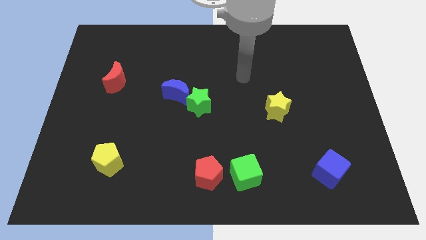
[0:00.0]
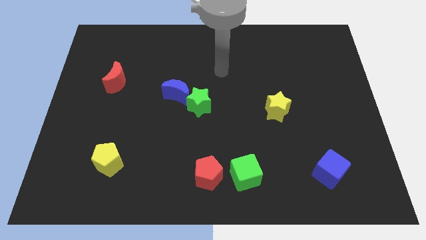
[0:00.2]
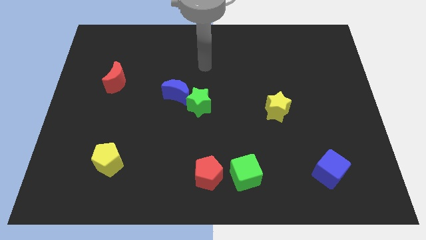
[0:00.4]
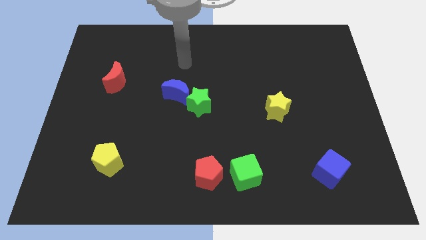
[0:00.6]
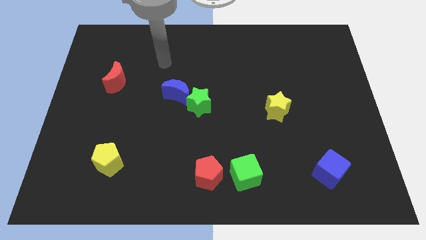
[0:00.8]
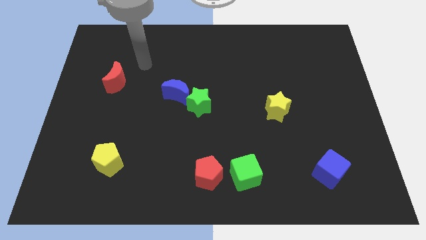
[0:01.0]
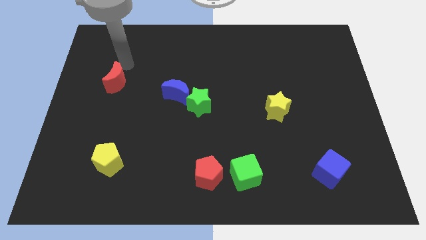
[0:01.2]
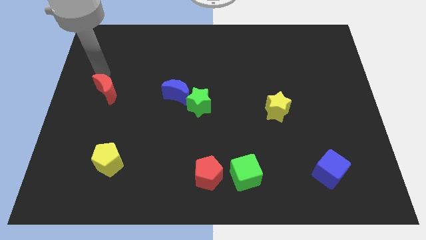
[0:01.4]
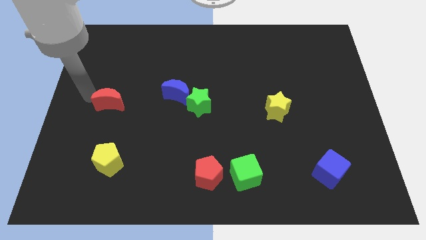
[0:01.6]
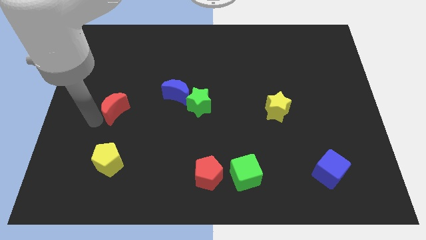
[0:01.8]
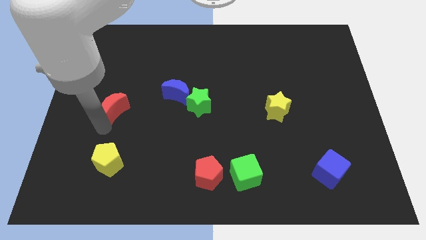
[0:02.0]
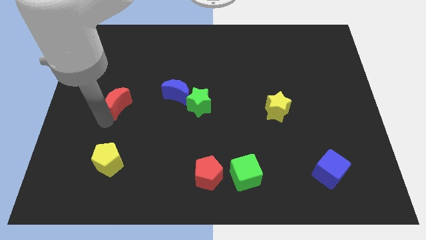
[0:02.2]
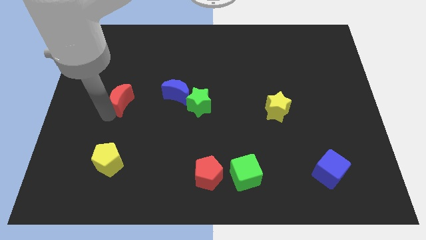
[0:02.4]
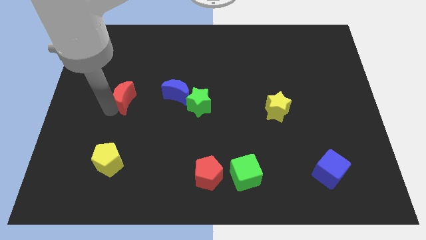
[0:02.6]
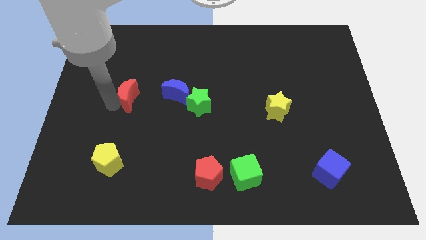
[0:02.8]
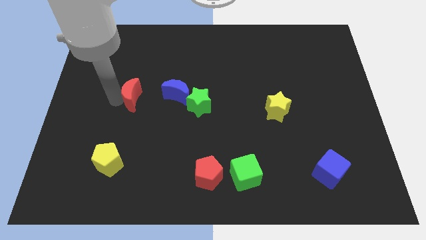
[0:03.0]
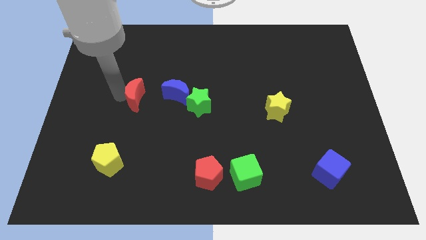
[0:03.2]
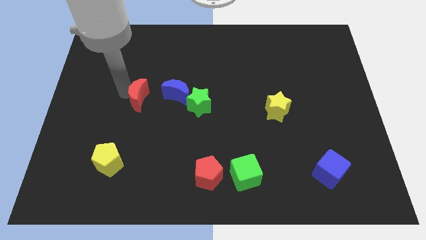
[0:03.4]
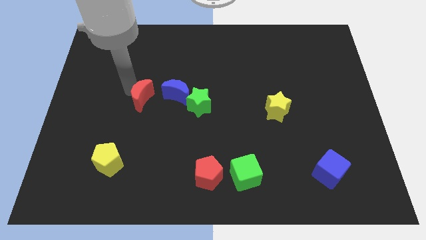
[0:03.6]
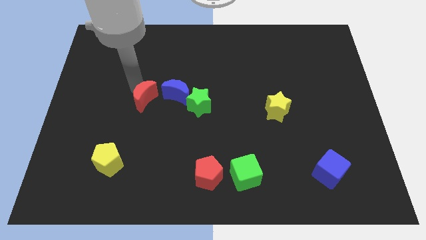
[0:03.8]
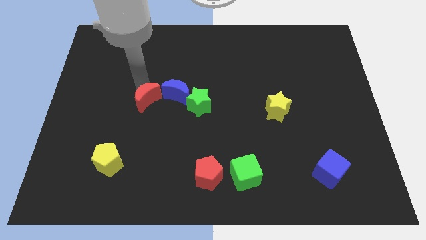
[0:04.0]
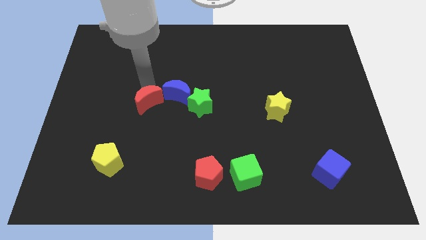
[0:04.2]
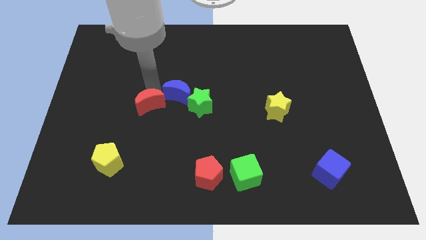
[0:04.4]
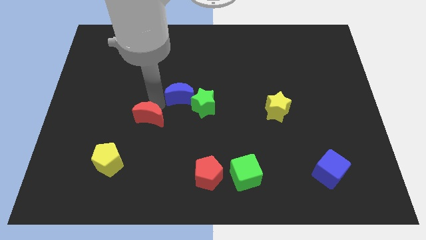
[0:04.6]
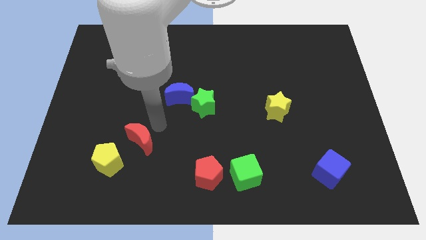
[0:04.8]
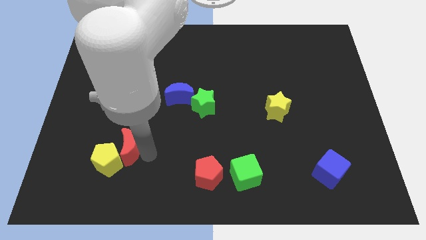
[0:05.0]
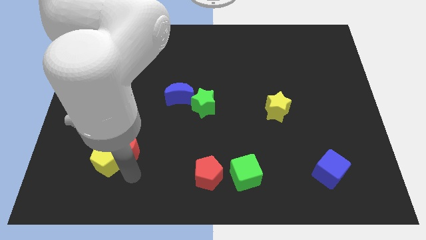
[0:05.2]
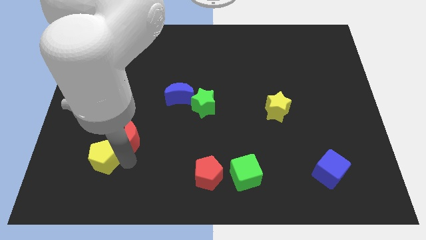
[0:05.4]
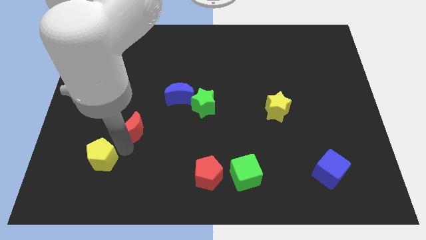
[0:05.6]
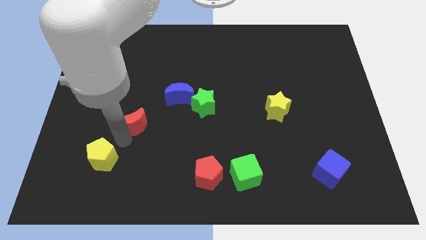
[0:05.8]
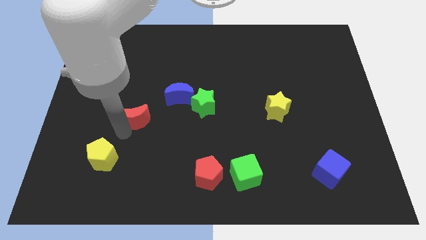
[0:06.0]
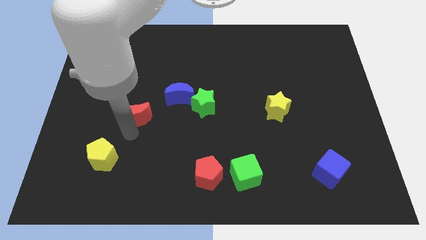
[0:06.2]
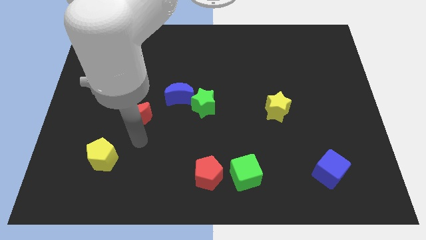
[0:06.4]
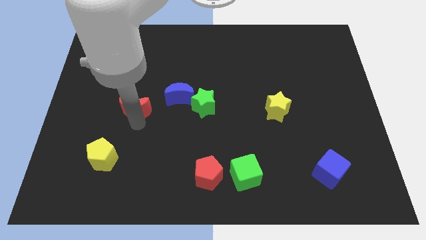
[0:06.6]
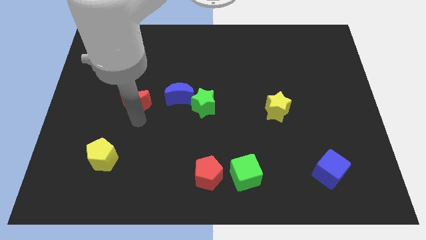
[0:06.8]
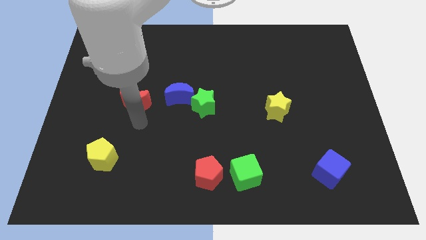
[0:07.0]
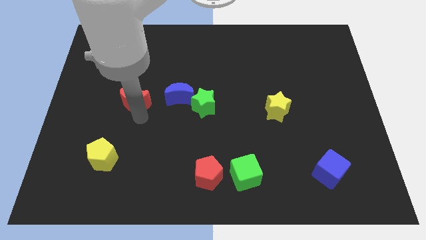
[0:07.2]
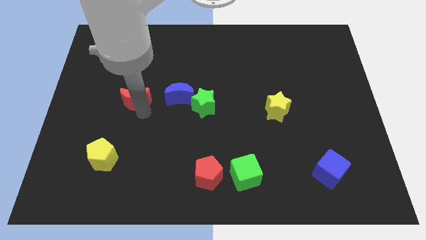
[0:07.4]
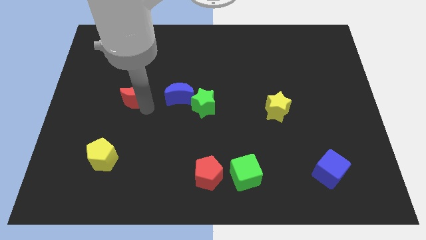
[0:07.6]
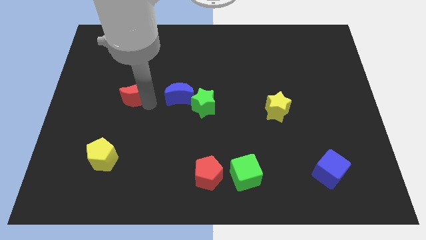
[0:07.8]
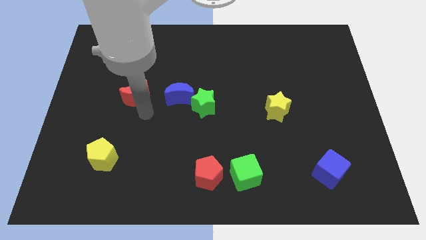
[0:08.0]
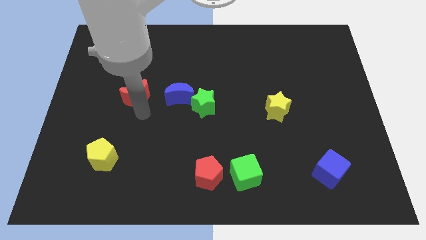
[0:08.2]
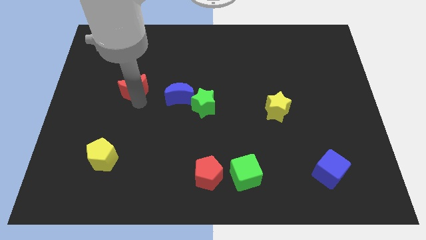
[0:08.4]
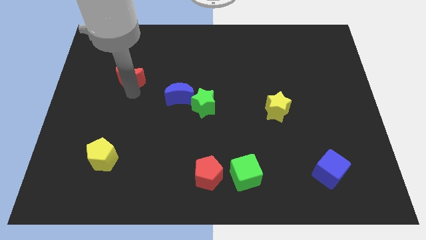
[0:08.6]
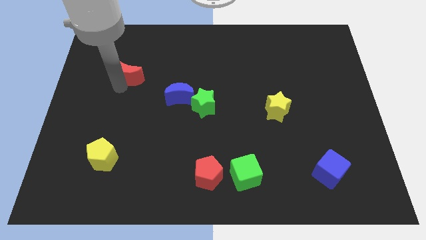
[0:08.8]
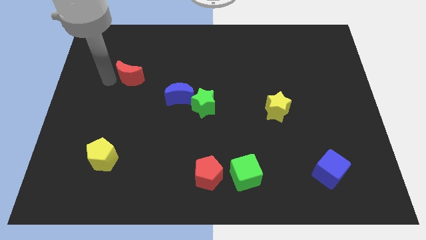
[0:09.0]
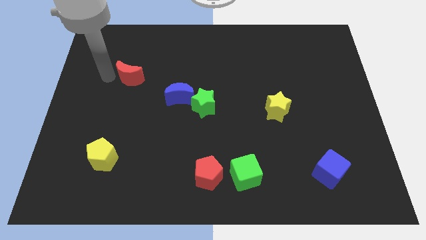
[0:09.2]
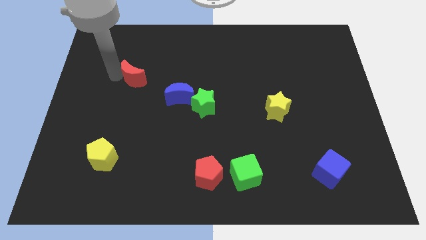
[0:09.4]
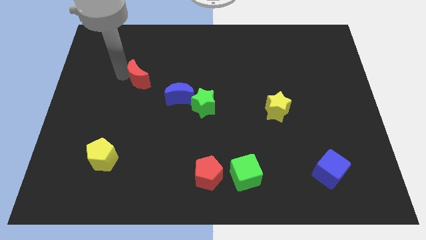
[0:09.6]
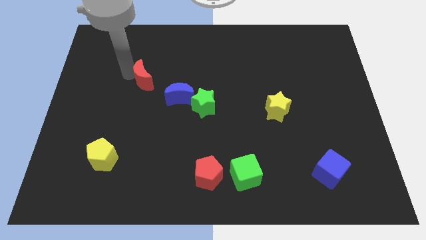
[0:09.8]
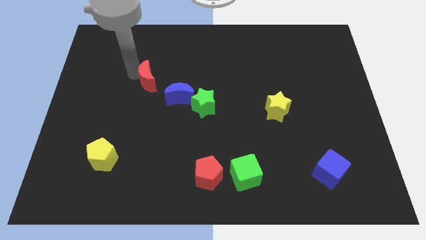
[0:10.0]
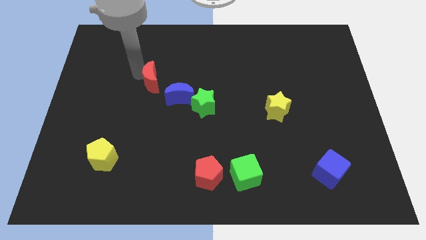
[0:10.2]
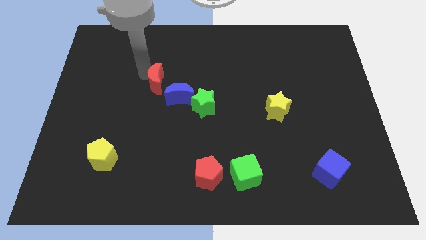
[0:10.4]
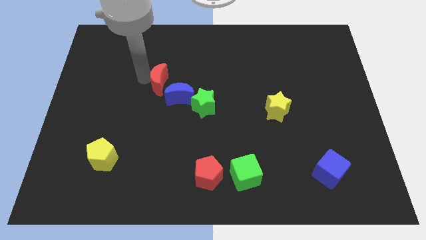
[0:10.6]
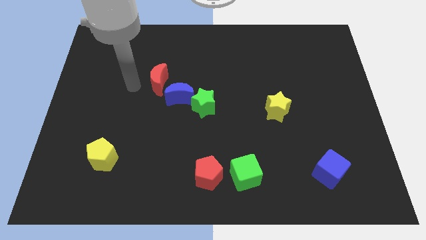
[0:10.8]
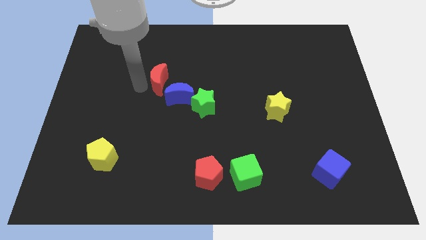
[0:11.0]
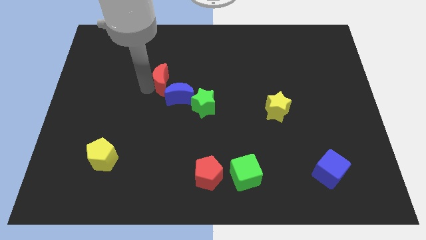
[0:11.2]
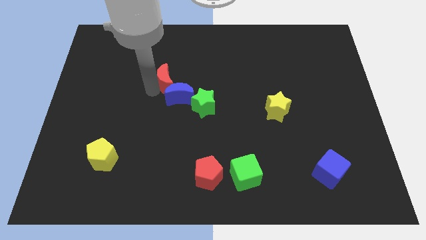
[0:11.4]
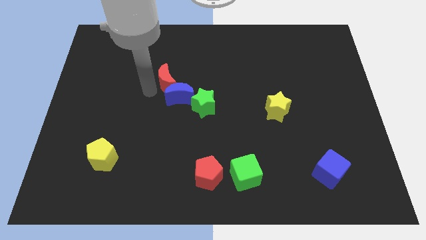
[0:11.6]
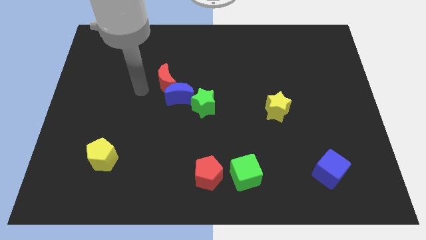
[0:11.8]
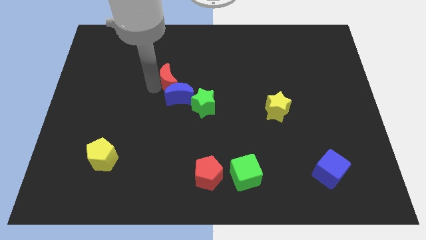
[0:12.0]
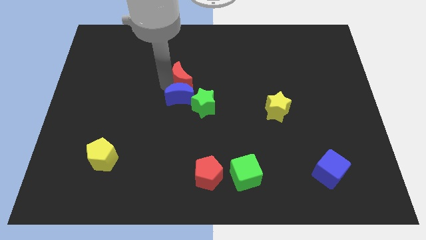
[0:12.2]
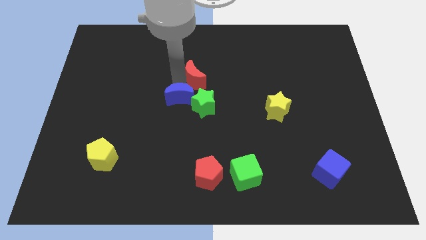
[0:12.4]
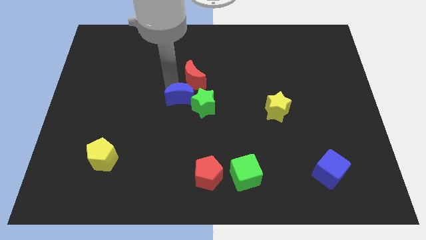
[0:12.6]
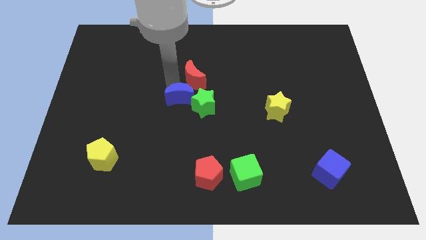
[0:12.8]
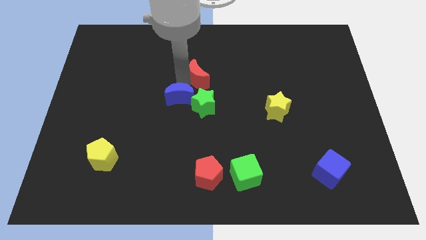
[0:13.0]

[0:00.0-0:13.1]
move the red moon to the right

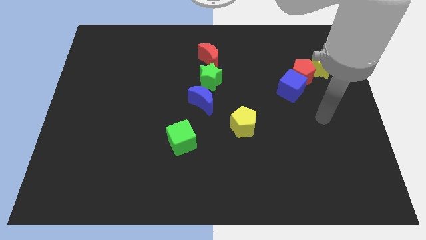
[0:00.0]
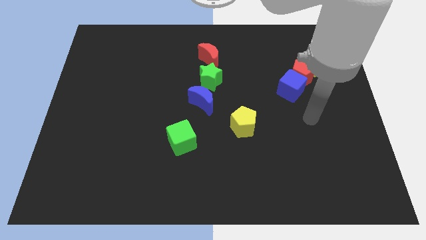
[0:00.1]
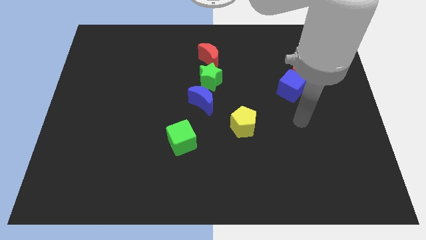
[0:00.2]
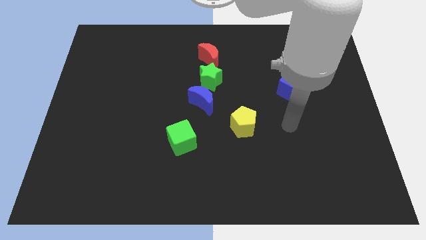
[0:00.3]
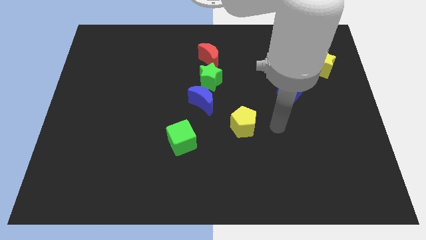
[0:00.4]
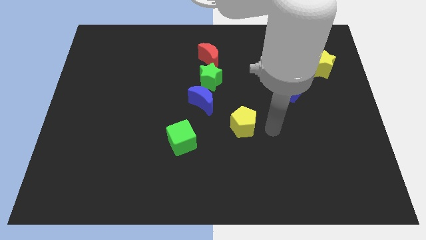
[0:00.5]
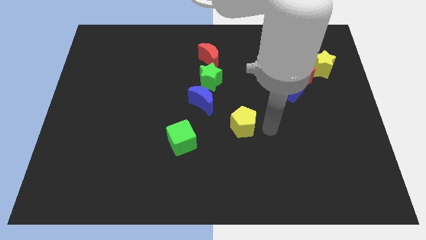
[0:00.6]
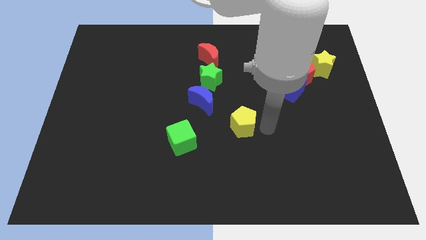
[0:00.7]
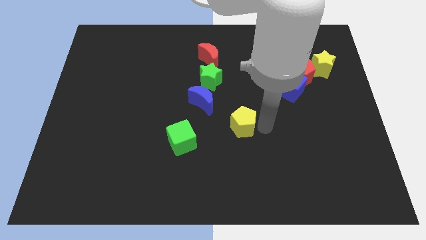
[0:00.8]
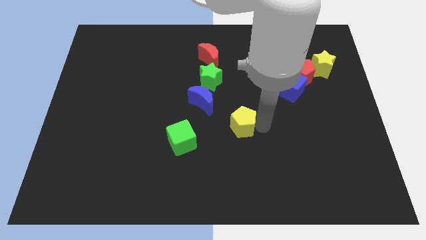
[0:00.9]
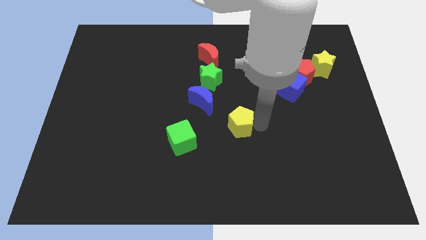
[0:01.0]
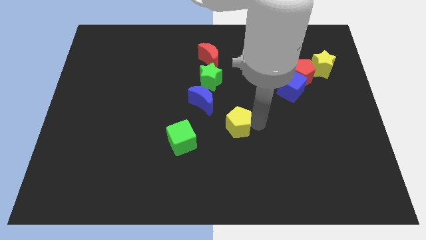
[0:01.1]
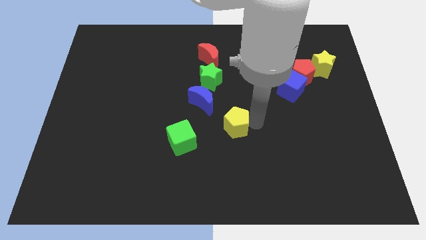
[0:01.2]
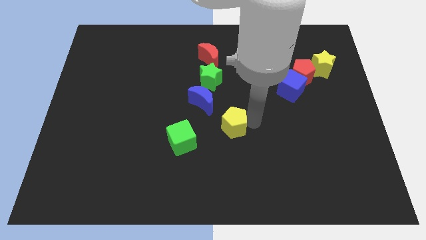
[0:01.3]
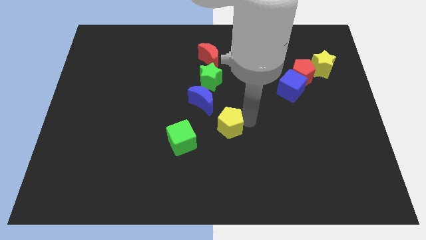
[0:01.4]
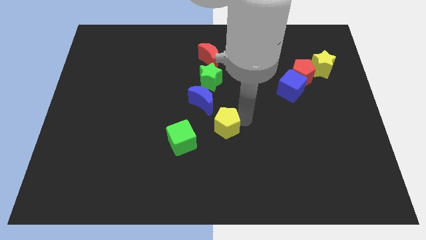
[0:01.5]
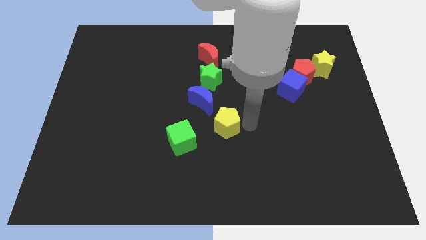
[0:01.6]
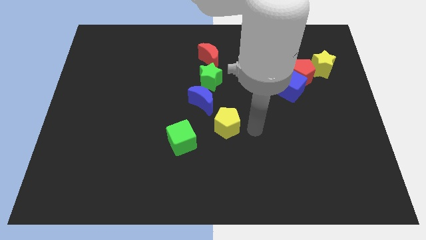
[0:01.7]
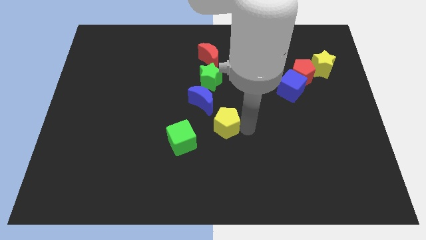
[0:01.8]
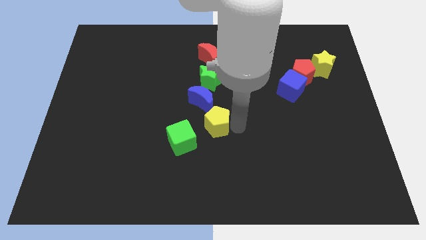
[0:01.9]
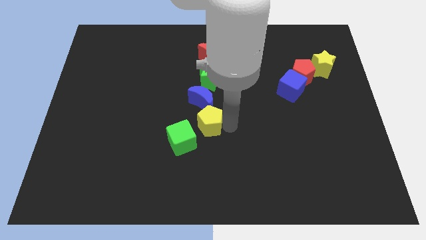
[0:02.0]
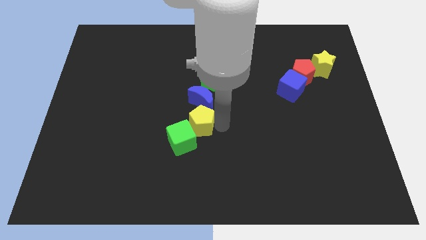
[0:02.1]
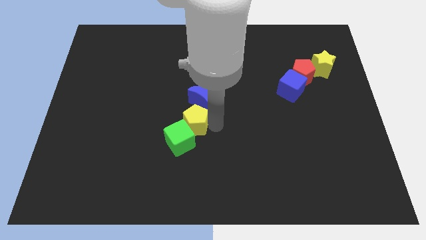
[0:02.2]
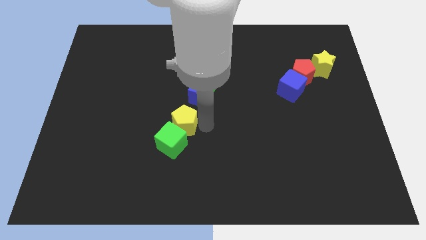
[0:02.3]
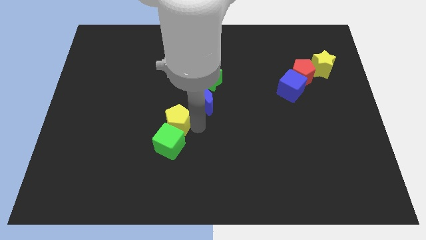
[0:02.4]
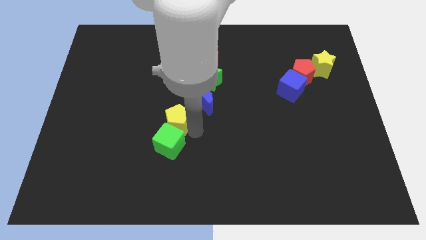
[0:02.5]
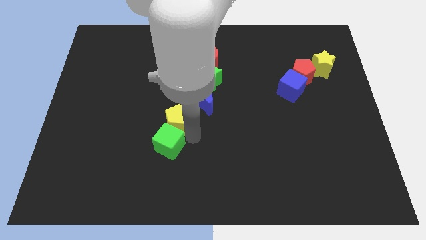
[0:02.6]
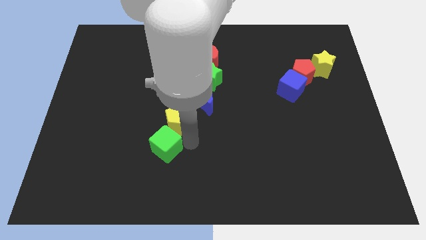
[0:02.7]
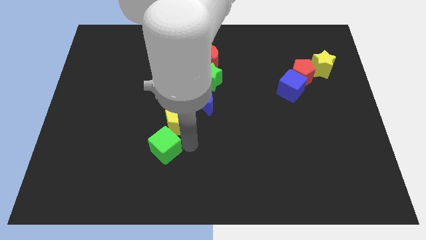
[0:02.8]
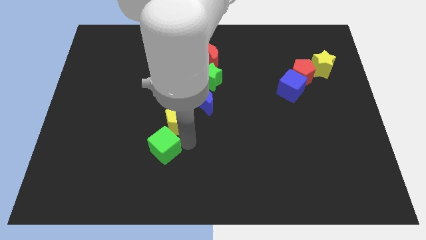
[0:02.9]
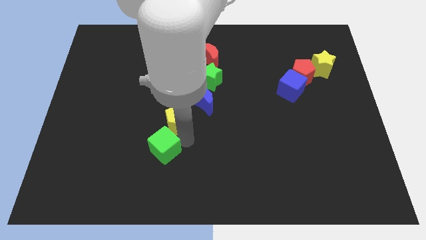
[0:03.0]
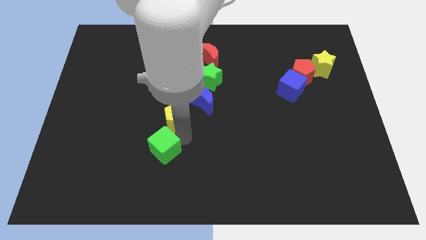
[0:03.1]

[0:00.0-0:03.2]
push the yellow pentagon up and then to the left somewhat
